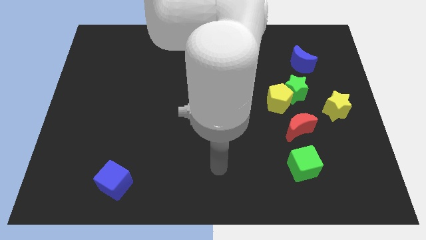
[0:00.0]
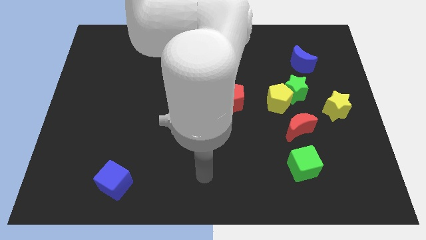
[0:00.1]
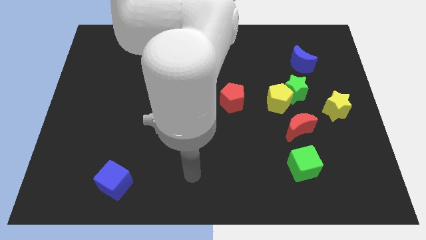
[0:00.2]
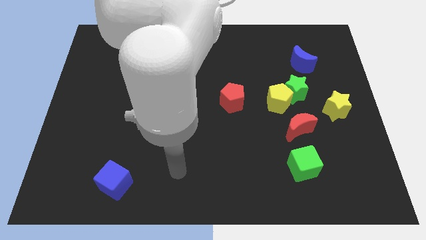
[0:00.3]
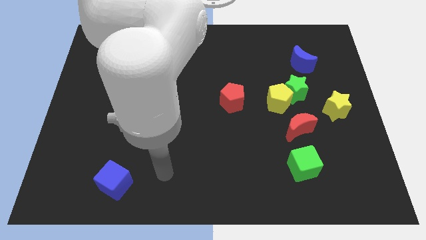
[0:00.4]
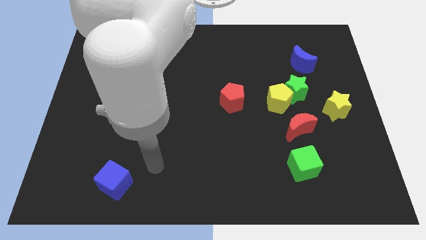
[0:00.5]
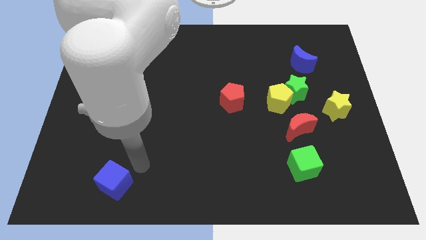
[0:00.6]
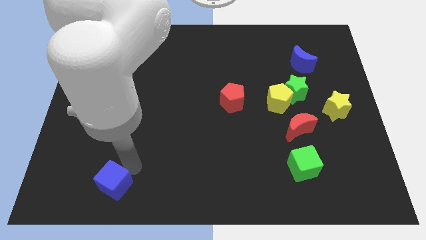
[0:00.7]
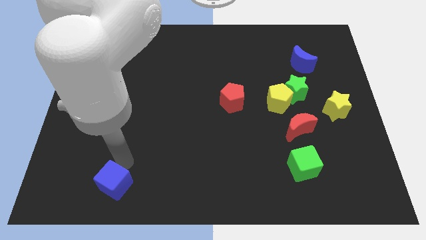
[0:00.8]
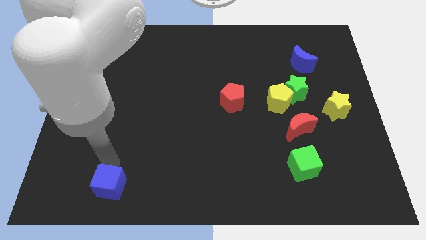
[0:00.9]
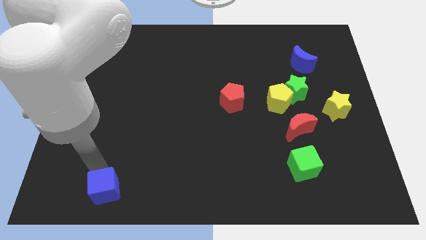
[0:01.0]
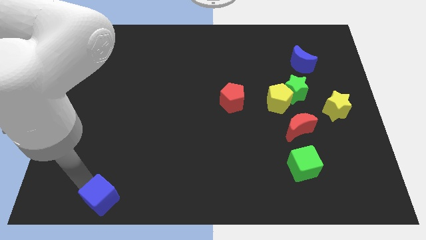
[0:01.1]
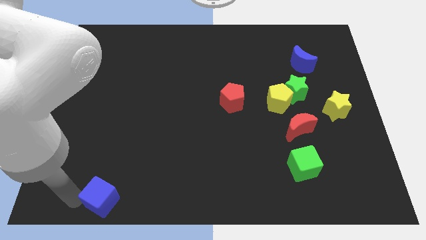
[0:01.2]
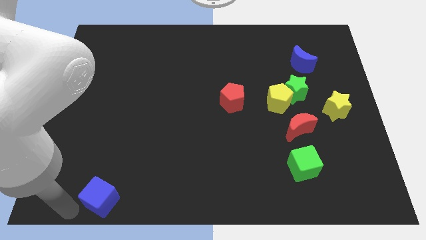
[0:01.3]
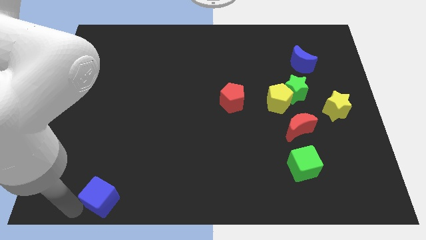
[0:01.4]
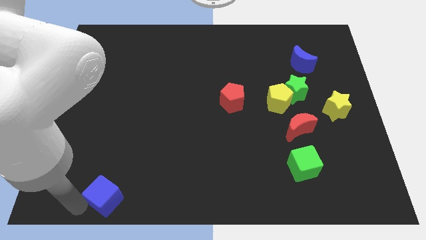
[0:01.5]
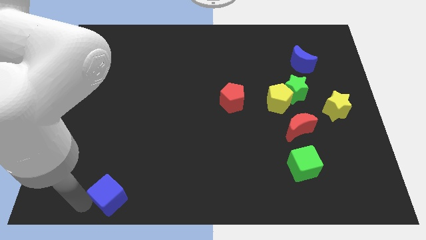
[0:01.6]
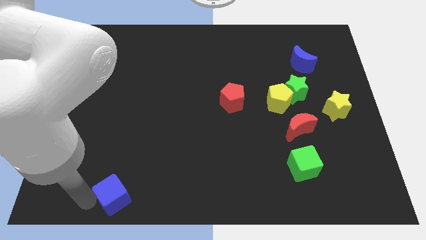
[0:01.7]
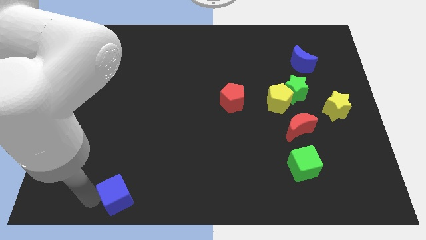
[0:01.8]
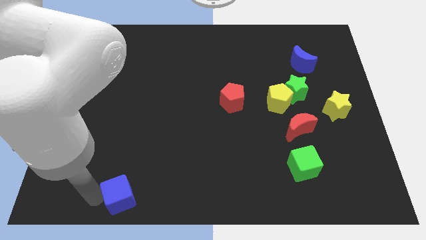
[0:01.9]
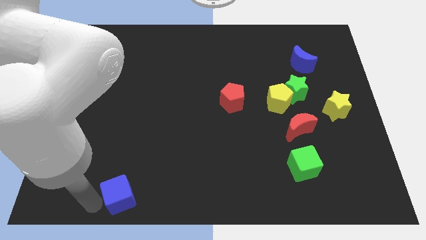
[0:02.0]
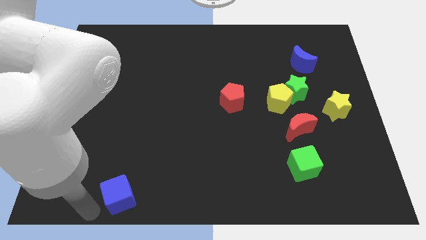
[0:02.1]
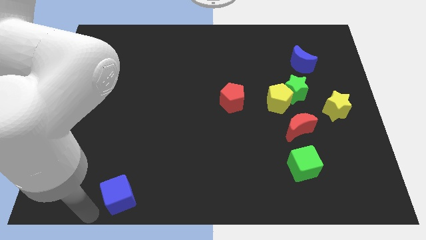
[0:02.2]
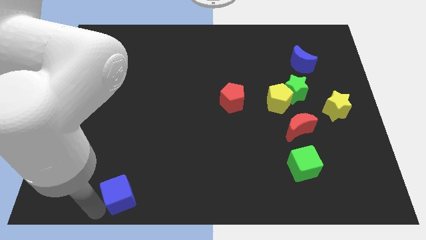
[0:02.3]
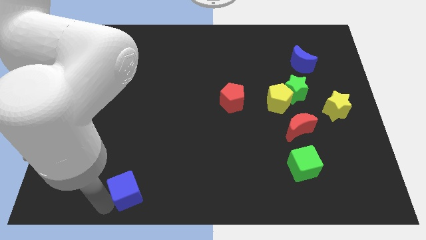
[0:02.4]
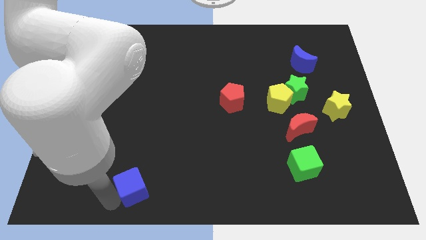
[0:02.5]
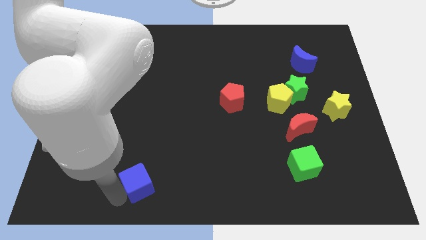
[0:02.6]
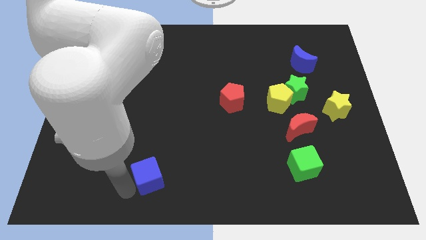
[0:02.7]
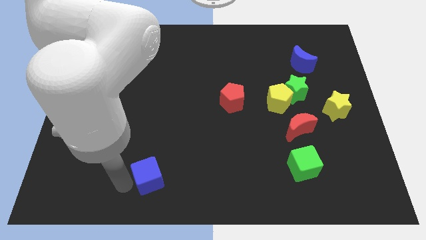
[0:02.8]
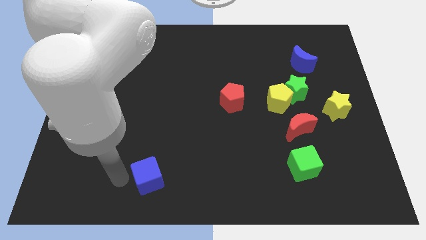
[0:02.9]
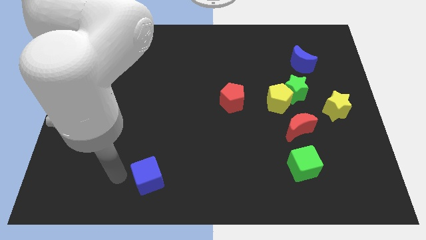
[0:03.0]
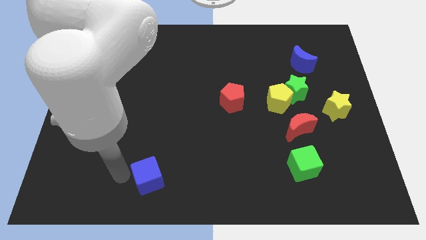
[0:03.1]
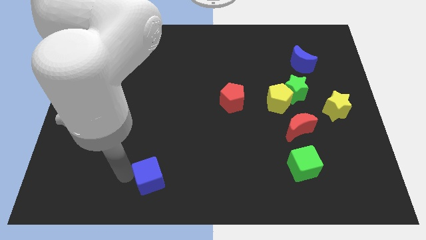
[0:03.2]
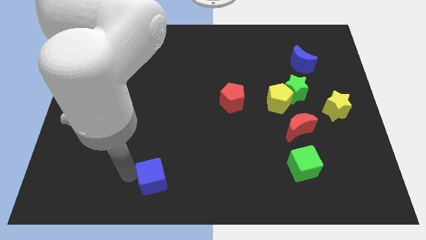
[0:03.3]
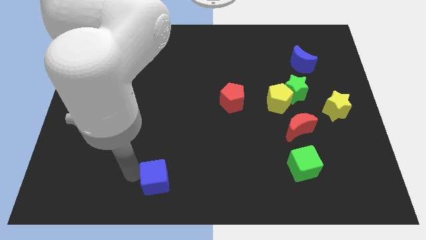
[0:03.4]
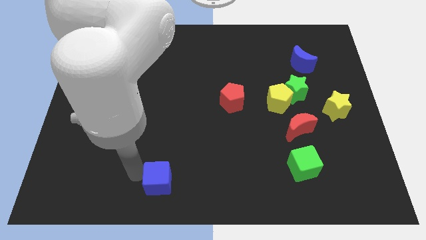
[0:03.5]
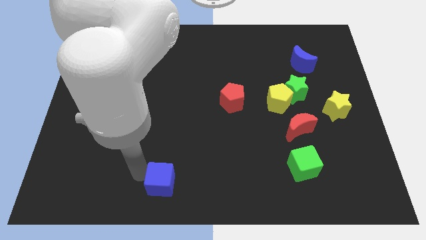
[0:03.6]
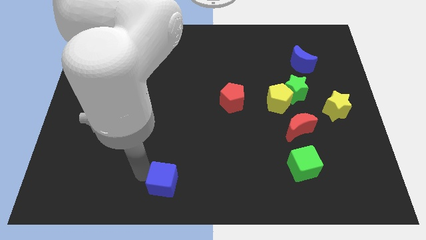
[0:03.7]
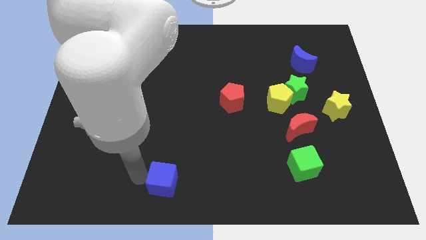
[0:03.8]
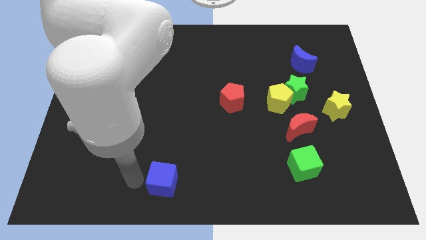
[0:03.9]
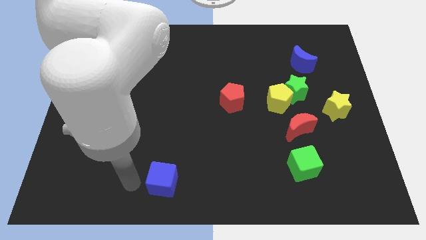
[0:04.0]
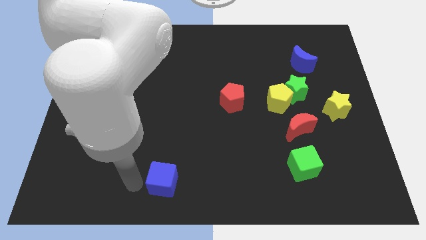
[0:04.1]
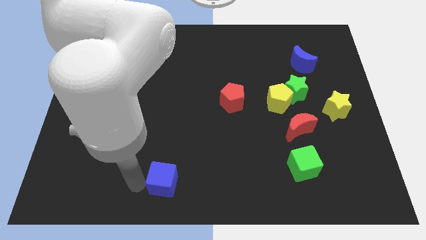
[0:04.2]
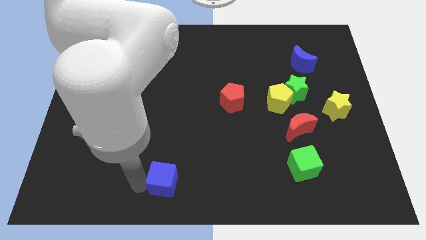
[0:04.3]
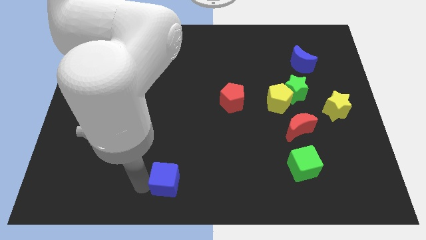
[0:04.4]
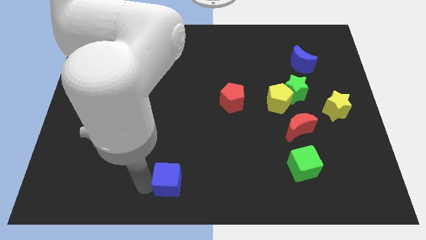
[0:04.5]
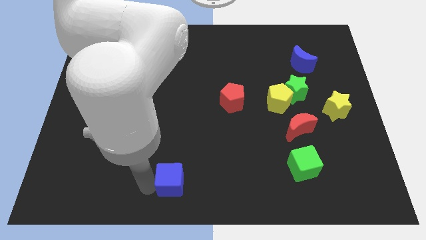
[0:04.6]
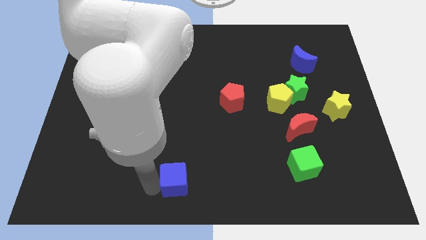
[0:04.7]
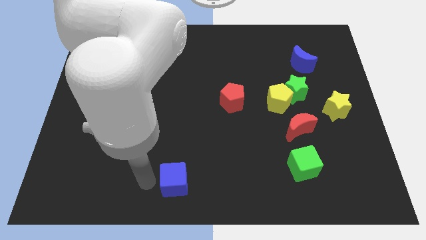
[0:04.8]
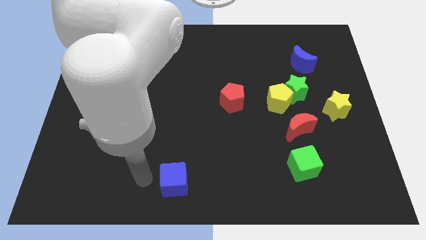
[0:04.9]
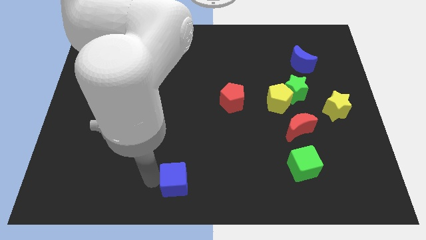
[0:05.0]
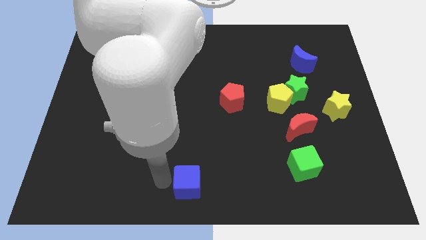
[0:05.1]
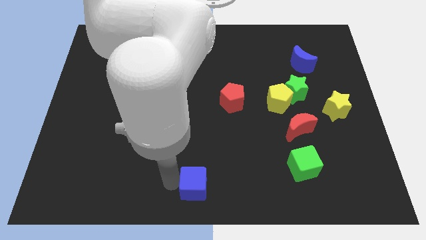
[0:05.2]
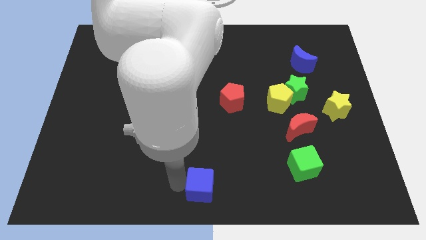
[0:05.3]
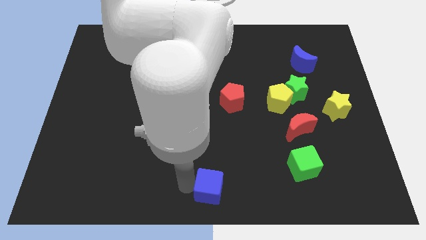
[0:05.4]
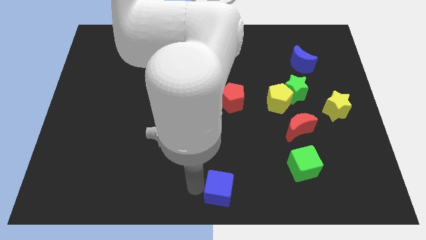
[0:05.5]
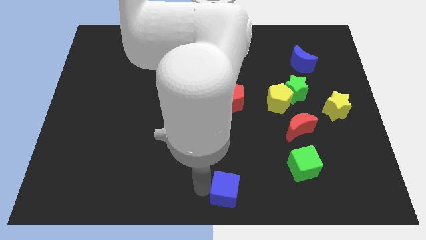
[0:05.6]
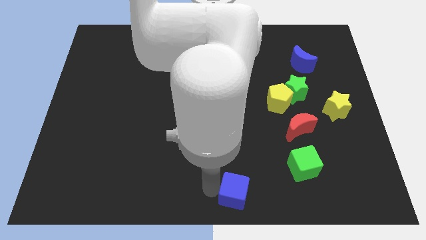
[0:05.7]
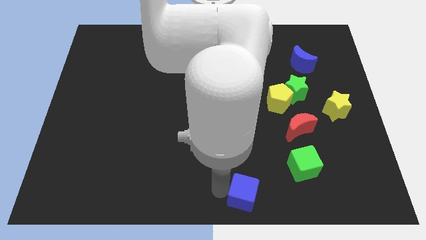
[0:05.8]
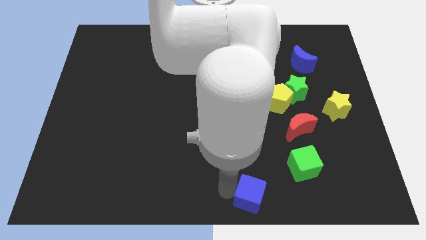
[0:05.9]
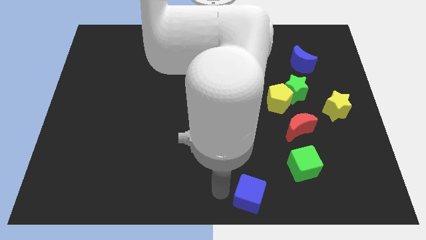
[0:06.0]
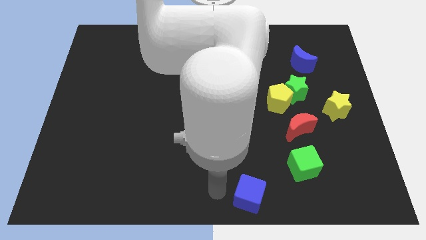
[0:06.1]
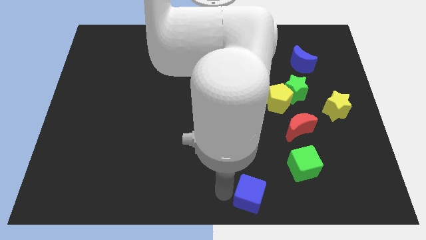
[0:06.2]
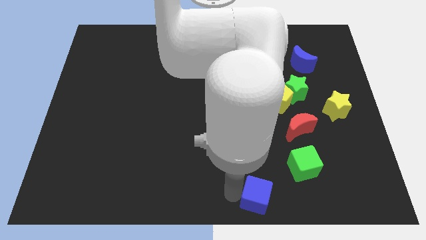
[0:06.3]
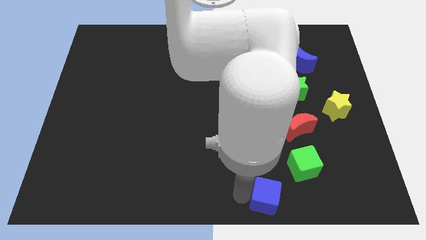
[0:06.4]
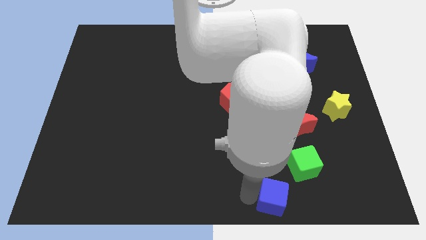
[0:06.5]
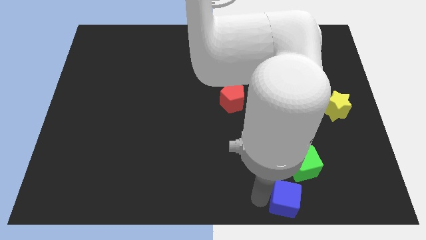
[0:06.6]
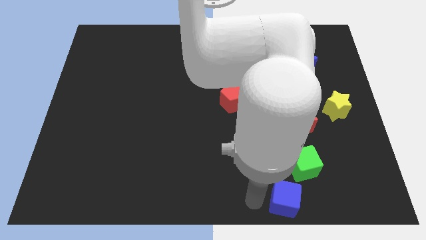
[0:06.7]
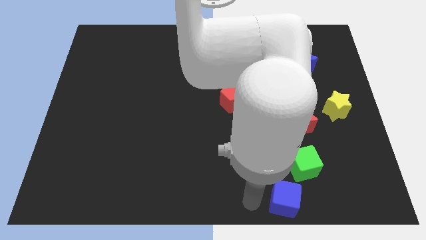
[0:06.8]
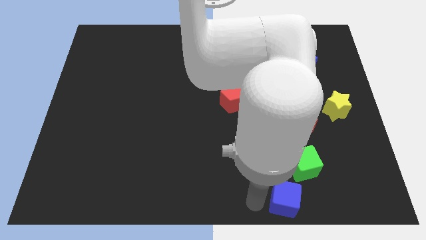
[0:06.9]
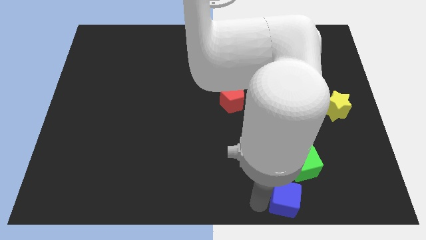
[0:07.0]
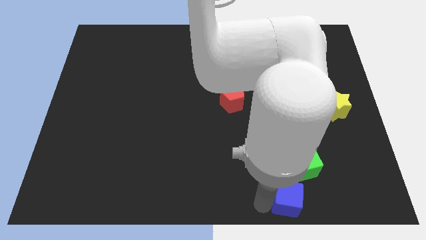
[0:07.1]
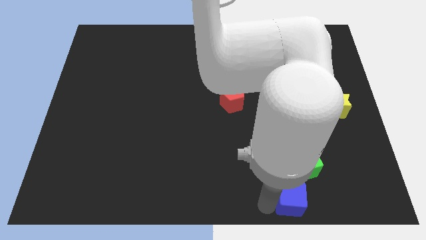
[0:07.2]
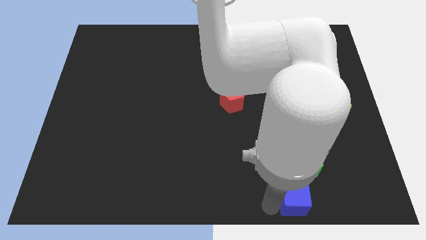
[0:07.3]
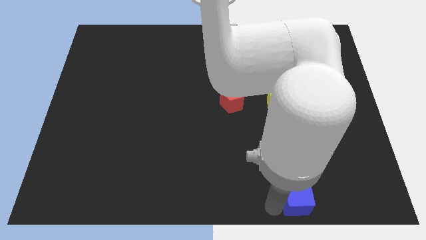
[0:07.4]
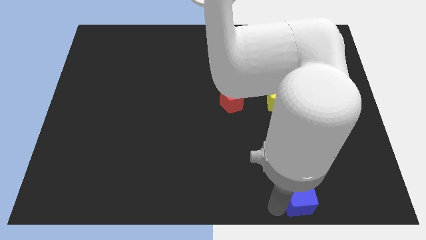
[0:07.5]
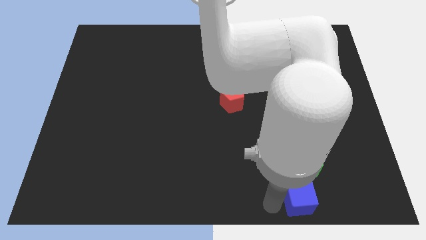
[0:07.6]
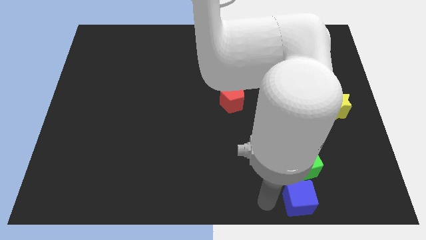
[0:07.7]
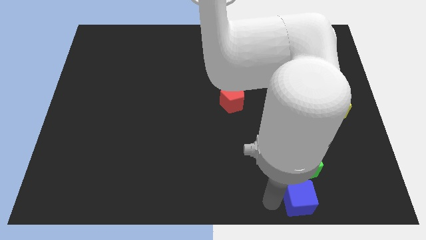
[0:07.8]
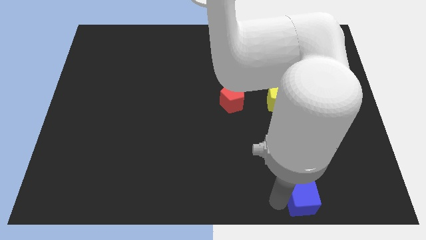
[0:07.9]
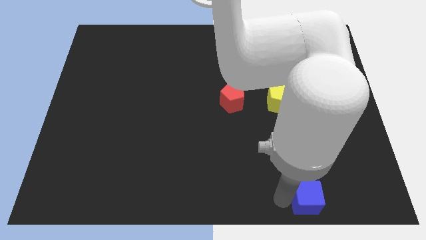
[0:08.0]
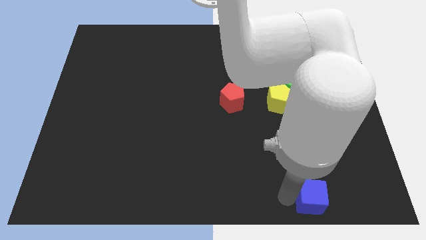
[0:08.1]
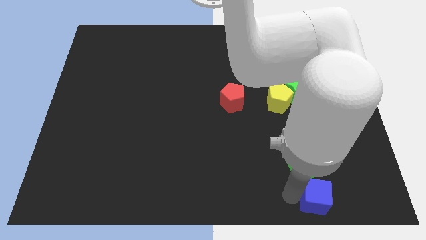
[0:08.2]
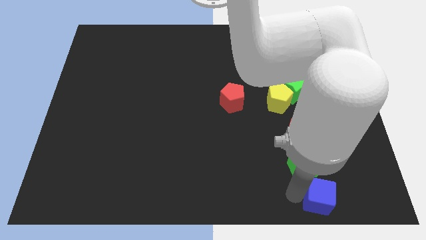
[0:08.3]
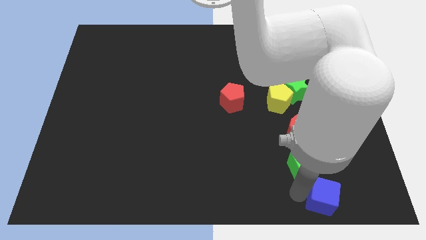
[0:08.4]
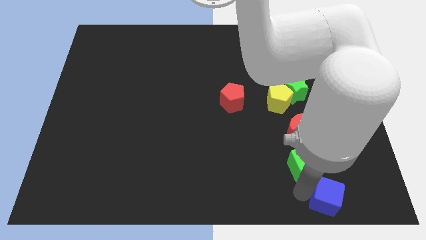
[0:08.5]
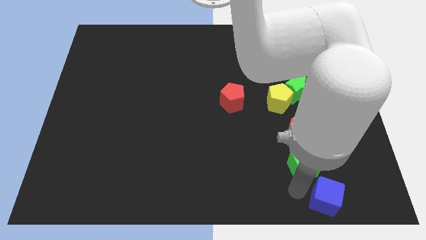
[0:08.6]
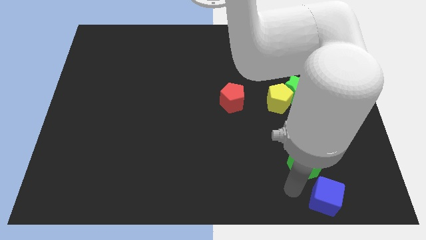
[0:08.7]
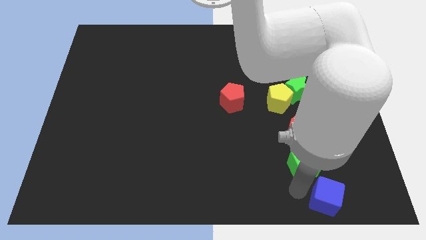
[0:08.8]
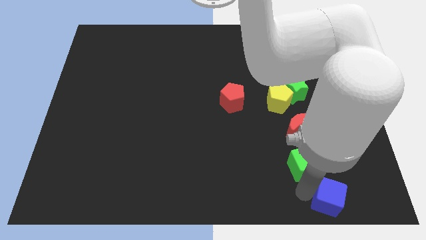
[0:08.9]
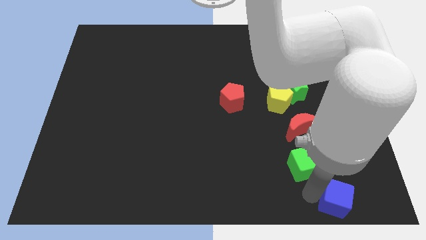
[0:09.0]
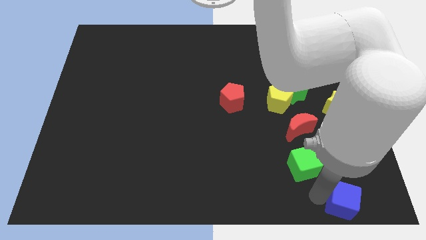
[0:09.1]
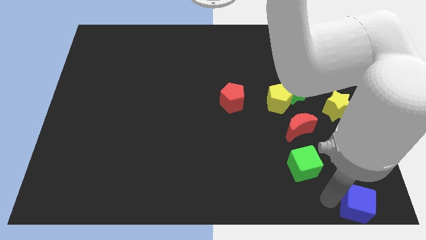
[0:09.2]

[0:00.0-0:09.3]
slide the blue cube to the lower right corner
